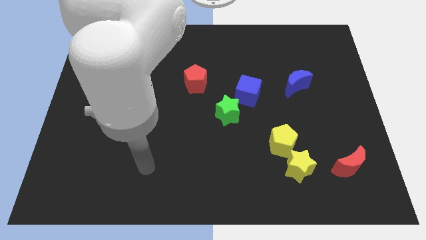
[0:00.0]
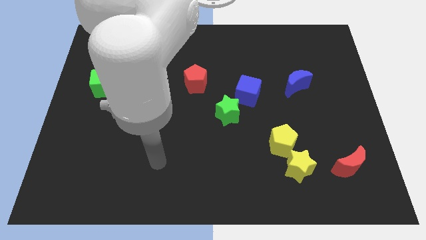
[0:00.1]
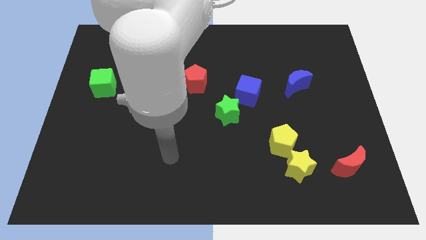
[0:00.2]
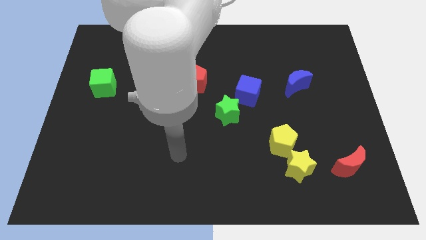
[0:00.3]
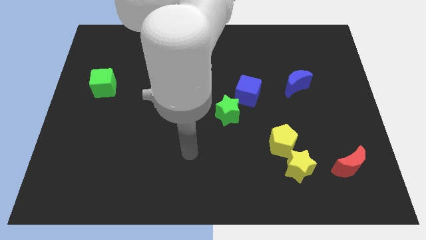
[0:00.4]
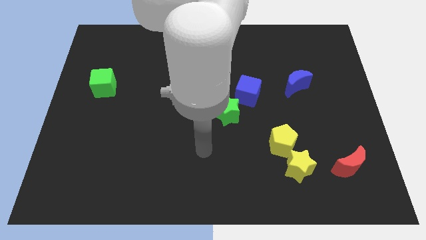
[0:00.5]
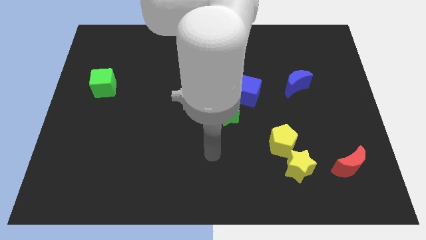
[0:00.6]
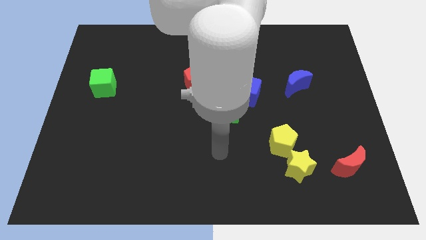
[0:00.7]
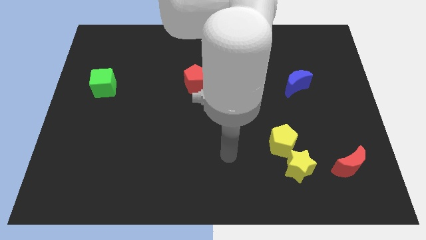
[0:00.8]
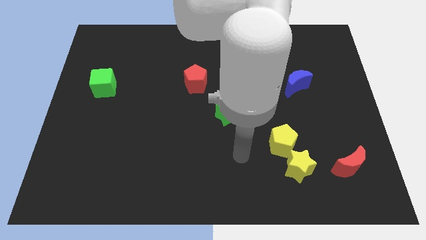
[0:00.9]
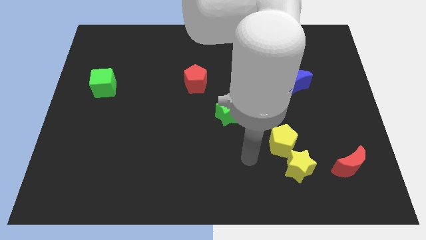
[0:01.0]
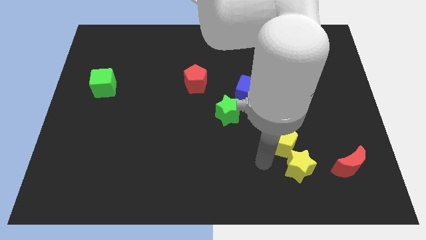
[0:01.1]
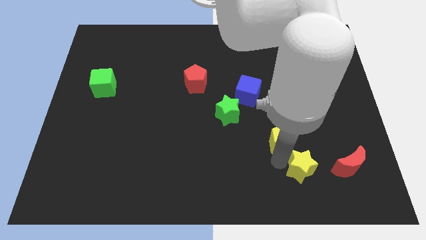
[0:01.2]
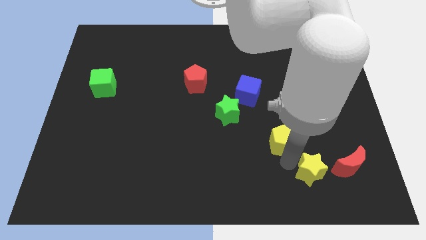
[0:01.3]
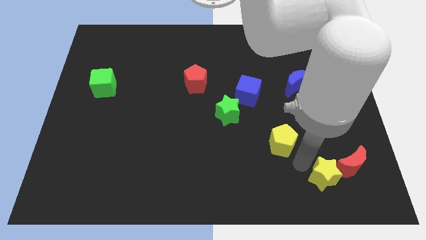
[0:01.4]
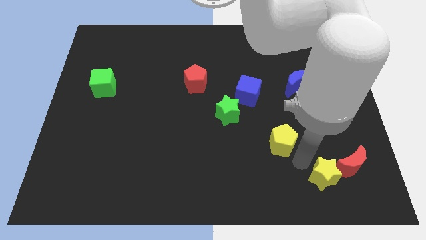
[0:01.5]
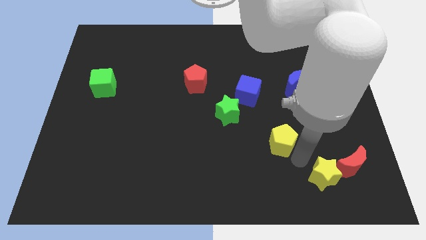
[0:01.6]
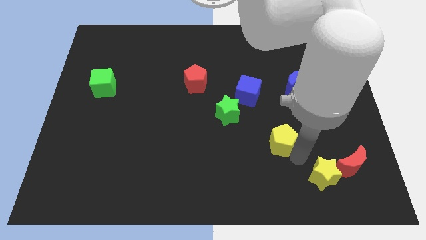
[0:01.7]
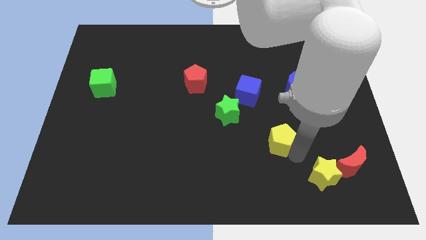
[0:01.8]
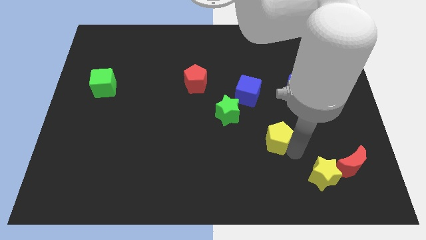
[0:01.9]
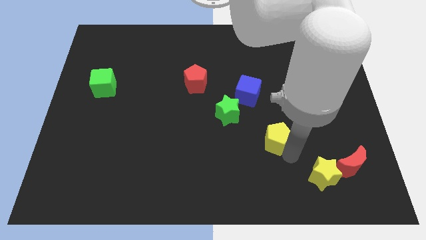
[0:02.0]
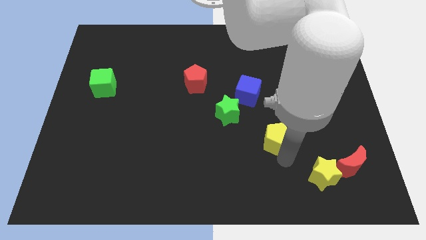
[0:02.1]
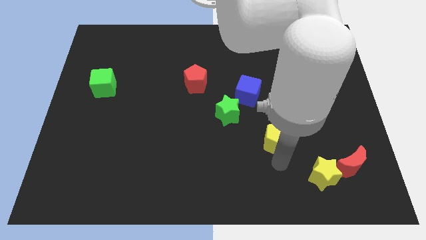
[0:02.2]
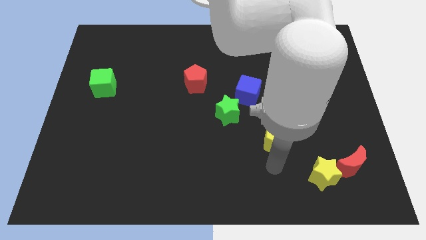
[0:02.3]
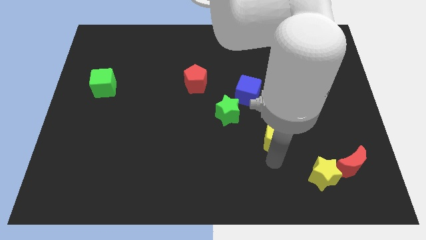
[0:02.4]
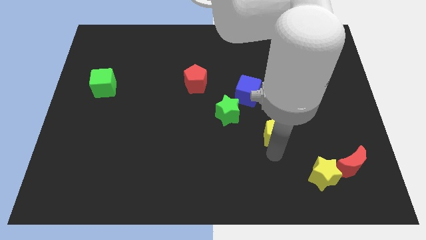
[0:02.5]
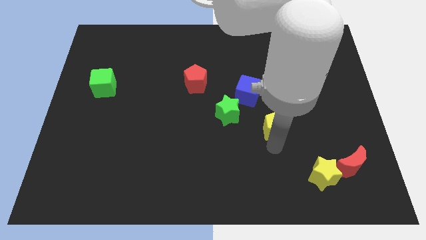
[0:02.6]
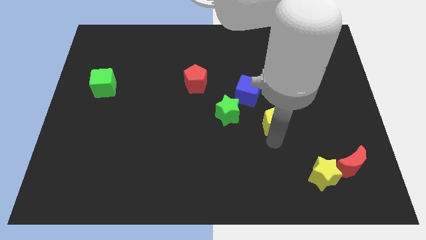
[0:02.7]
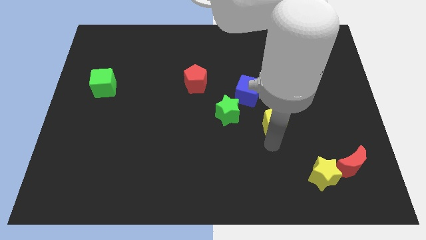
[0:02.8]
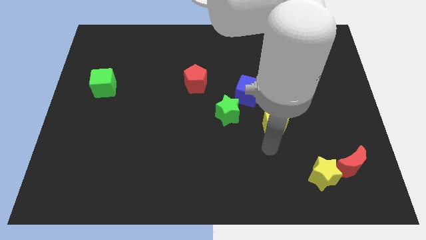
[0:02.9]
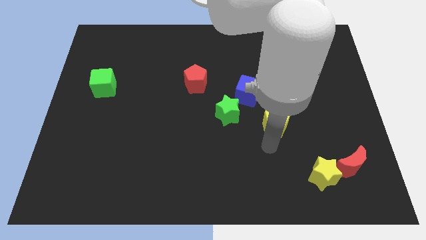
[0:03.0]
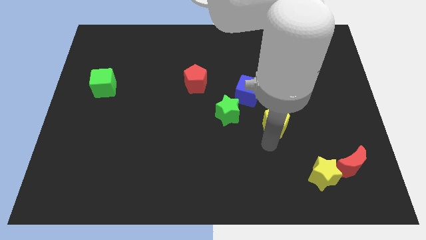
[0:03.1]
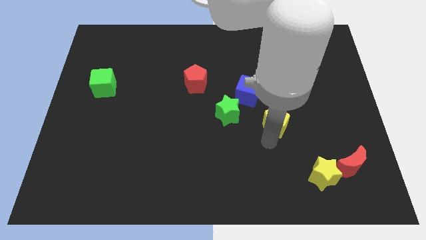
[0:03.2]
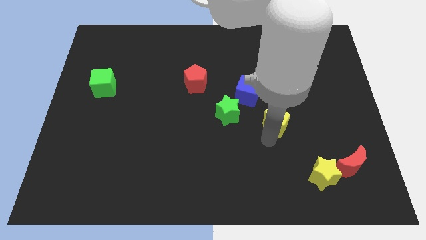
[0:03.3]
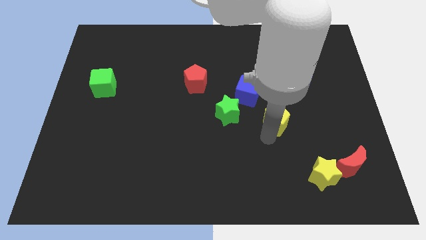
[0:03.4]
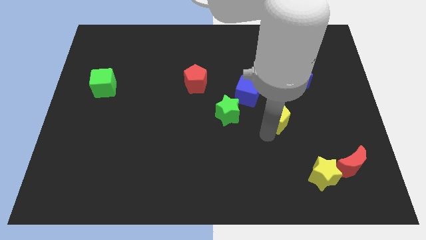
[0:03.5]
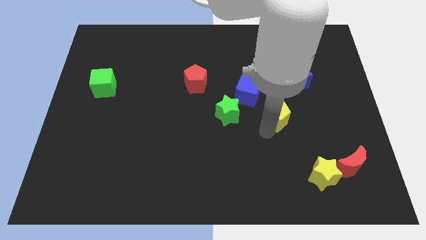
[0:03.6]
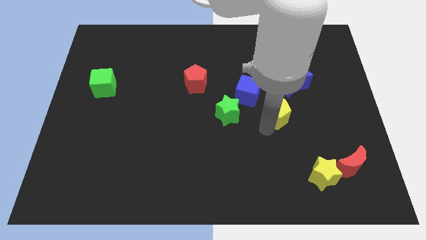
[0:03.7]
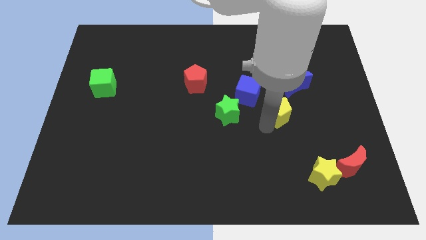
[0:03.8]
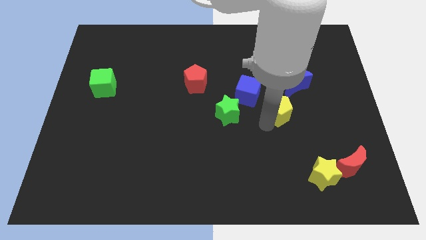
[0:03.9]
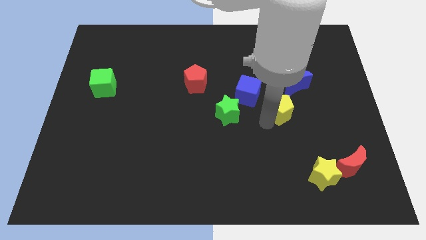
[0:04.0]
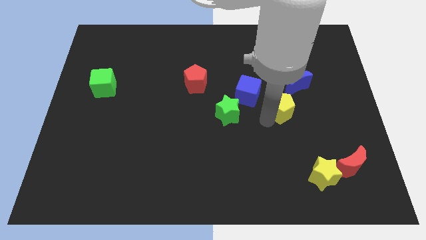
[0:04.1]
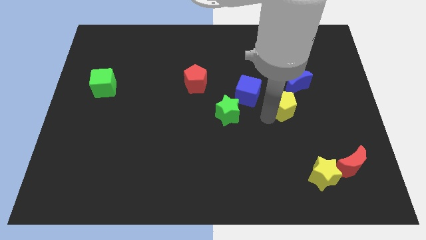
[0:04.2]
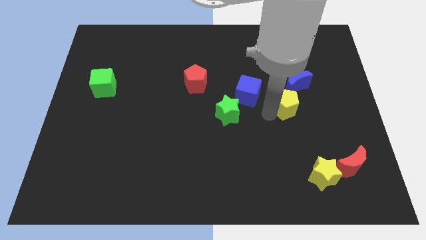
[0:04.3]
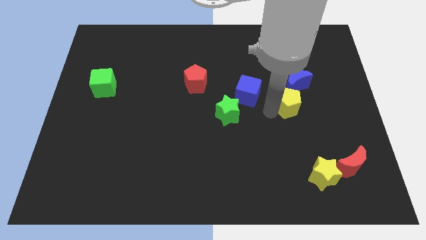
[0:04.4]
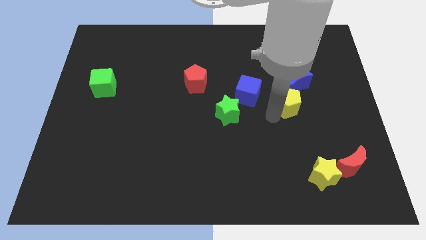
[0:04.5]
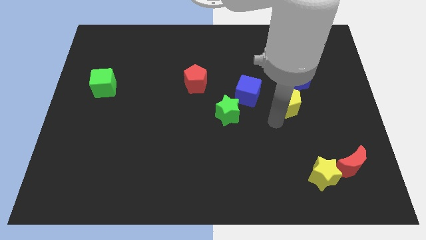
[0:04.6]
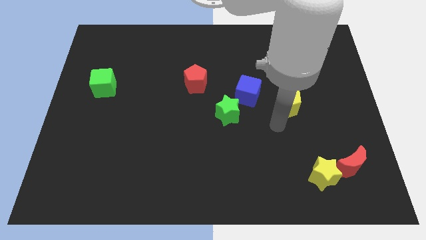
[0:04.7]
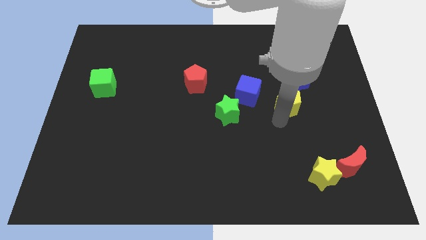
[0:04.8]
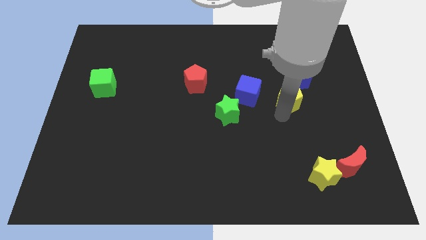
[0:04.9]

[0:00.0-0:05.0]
move the yellow pentagon close to the blue moon

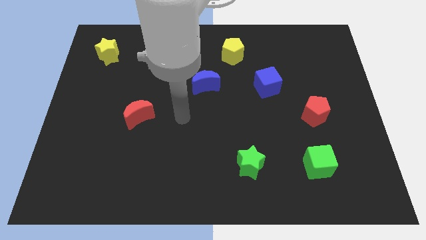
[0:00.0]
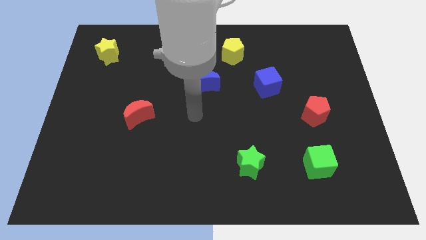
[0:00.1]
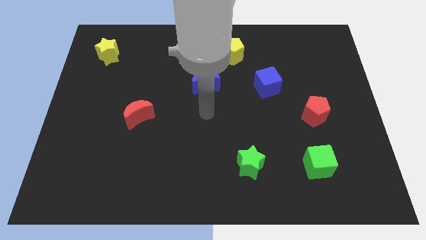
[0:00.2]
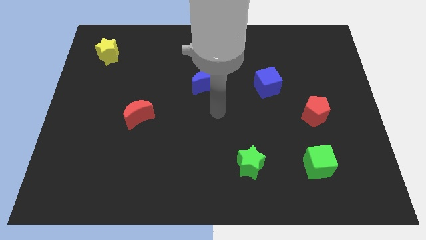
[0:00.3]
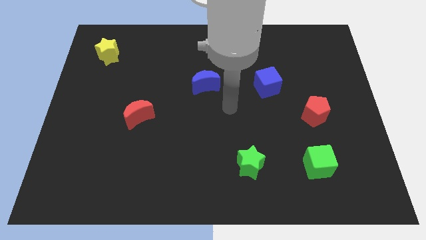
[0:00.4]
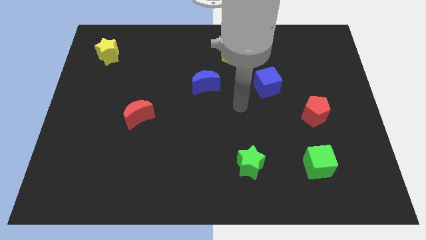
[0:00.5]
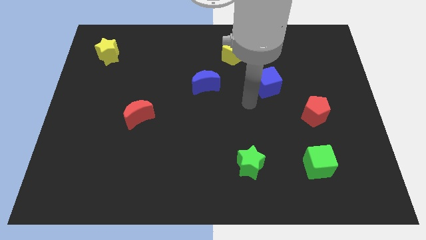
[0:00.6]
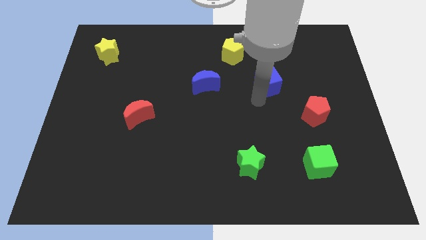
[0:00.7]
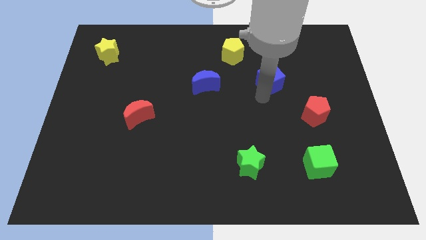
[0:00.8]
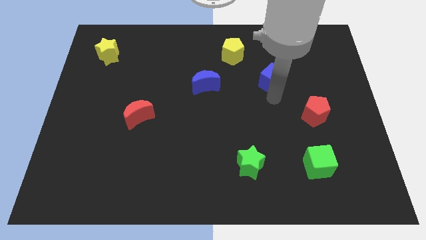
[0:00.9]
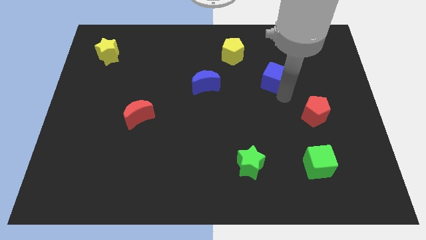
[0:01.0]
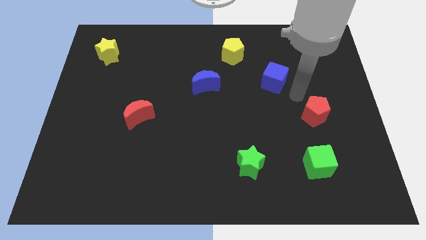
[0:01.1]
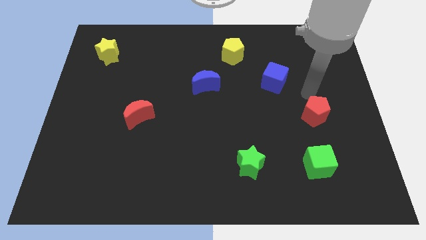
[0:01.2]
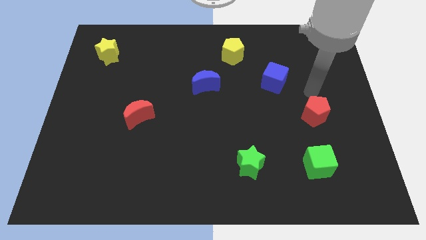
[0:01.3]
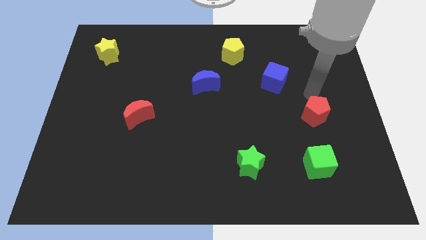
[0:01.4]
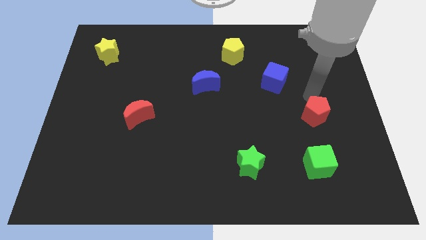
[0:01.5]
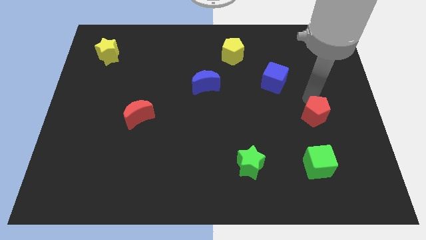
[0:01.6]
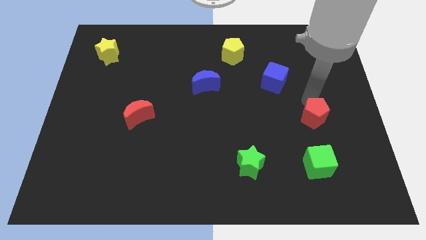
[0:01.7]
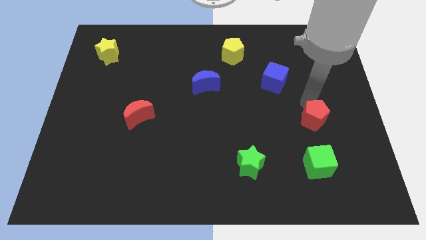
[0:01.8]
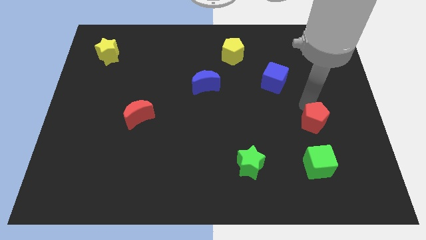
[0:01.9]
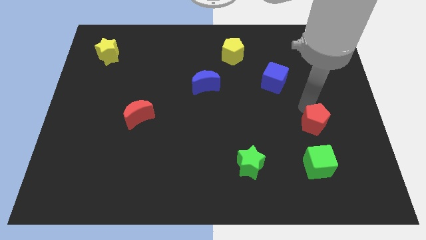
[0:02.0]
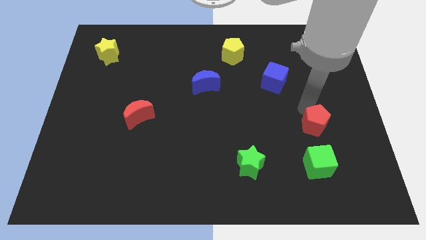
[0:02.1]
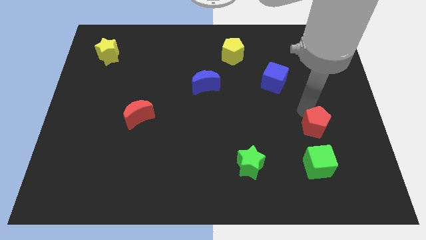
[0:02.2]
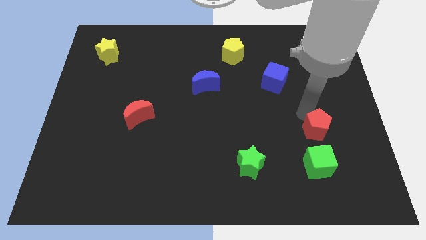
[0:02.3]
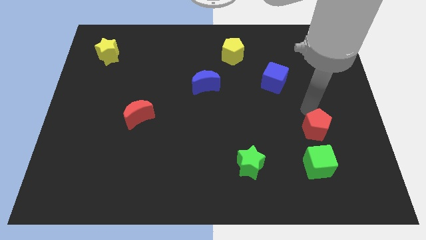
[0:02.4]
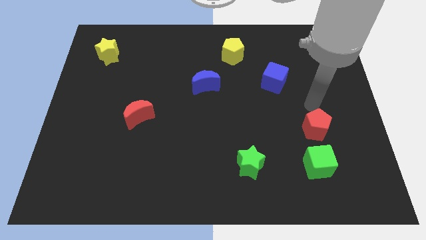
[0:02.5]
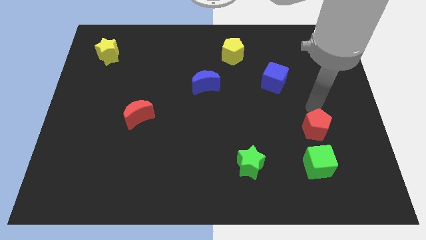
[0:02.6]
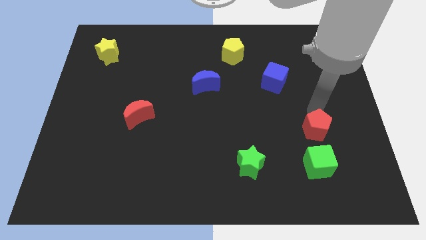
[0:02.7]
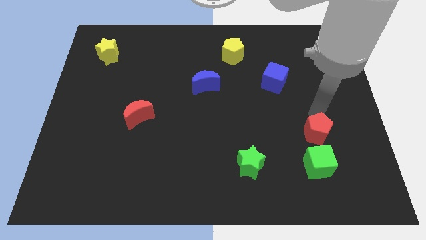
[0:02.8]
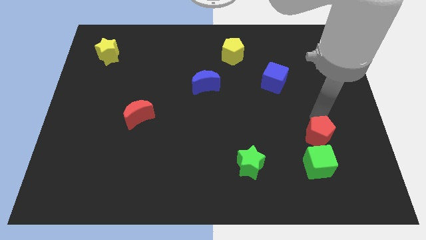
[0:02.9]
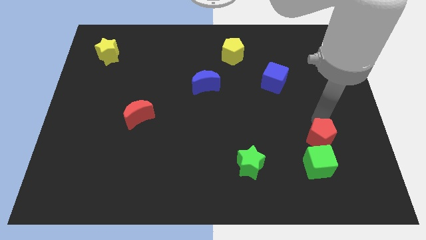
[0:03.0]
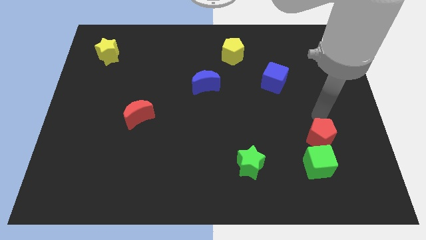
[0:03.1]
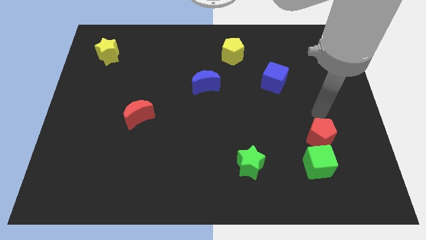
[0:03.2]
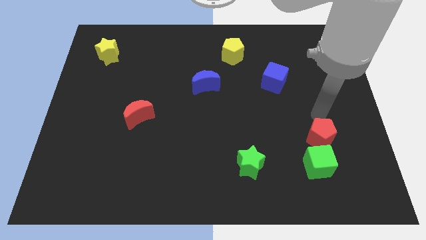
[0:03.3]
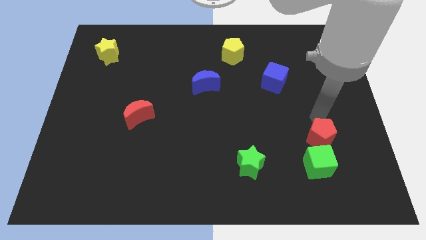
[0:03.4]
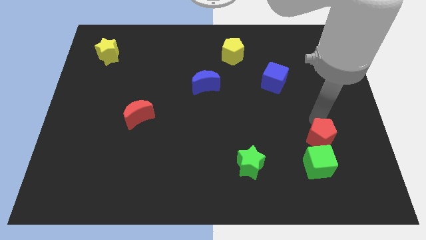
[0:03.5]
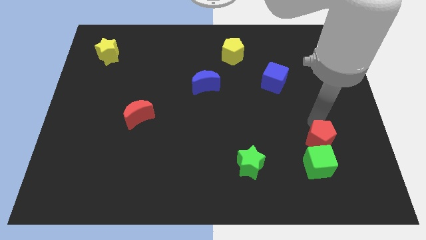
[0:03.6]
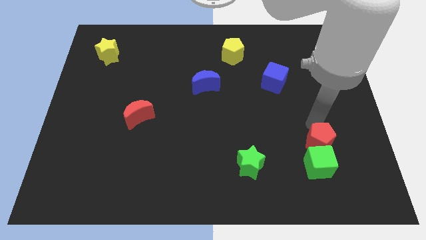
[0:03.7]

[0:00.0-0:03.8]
put the red pentagon towards the green cube
